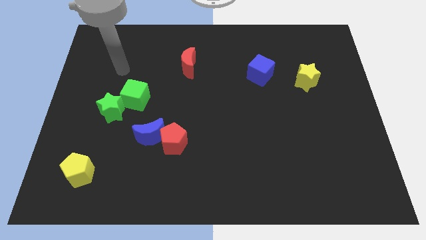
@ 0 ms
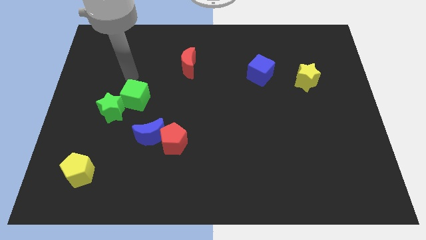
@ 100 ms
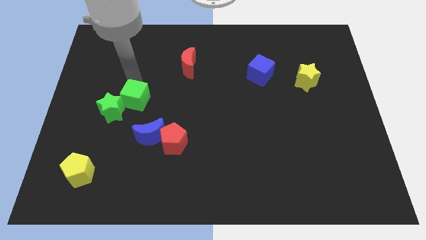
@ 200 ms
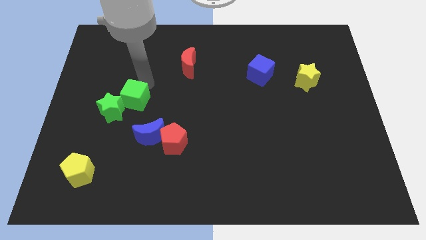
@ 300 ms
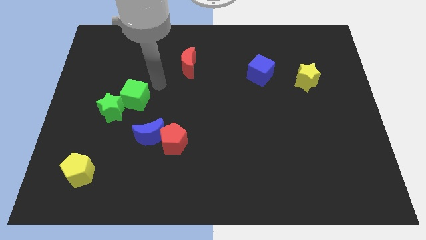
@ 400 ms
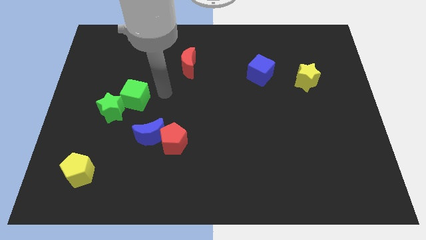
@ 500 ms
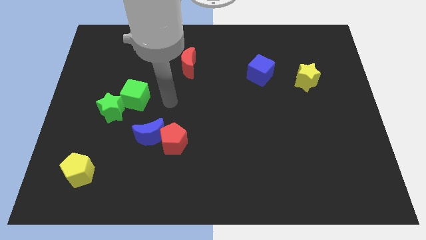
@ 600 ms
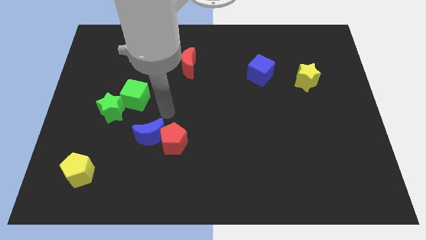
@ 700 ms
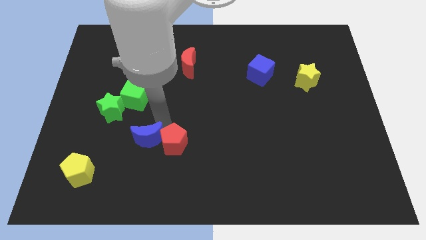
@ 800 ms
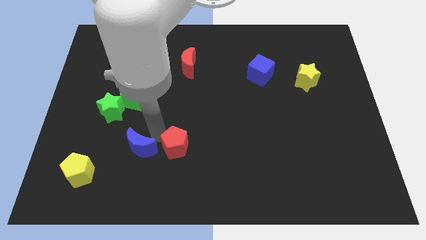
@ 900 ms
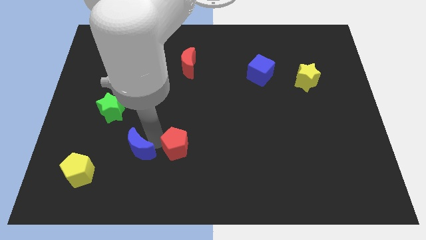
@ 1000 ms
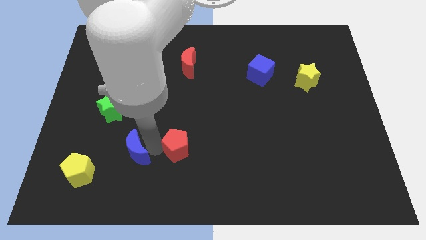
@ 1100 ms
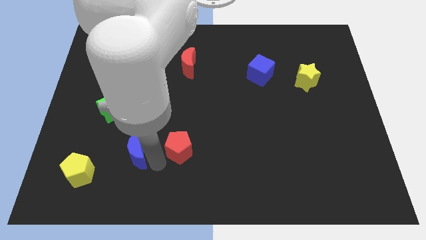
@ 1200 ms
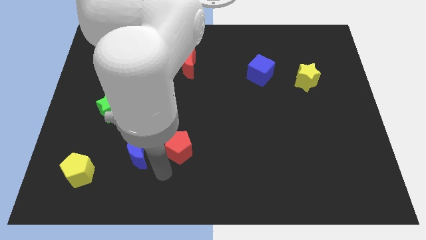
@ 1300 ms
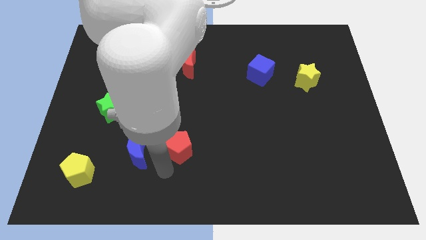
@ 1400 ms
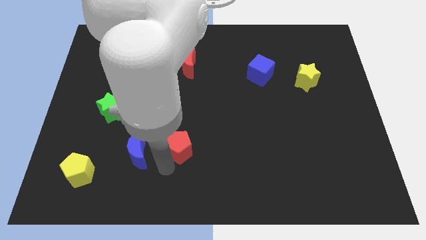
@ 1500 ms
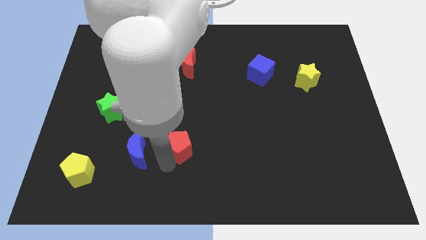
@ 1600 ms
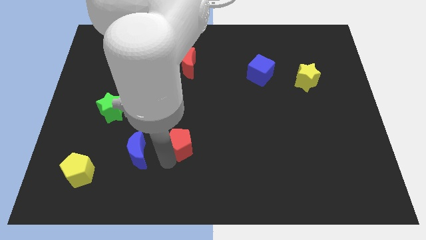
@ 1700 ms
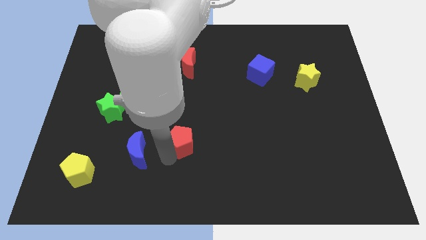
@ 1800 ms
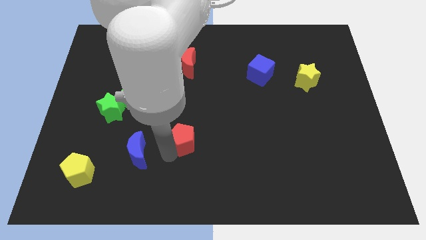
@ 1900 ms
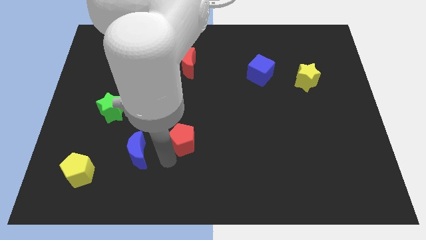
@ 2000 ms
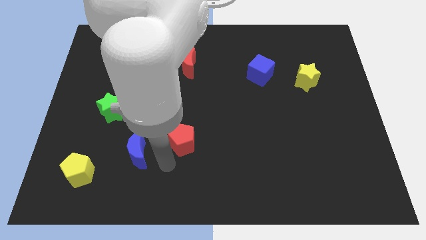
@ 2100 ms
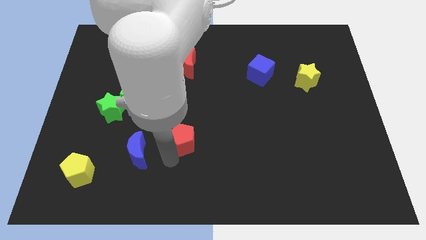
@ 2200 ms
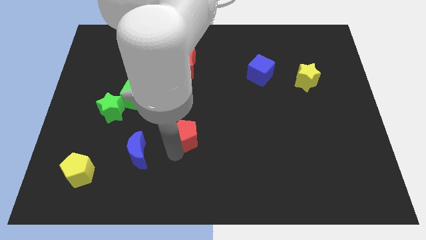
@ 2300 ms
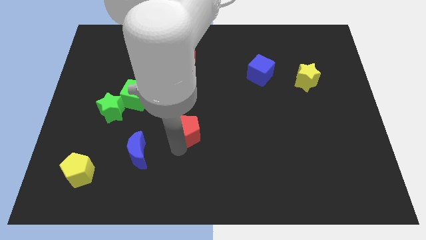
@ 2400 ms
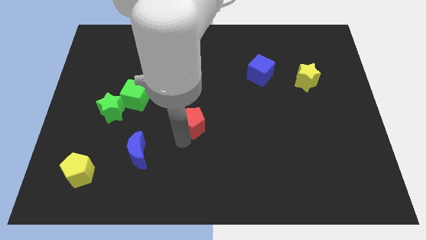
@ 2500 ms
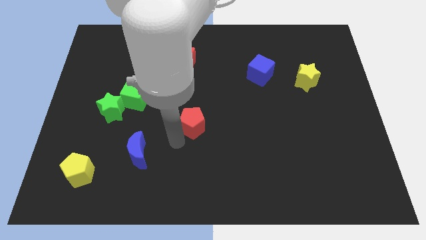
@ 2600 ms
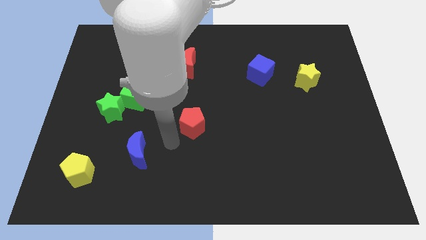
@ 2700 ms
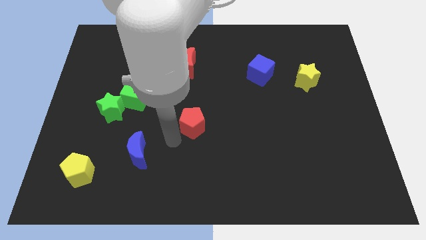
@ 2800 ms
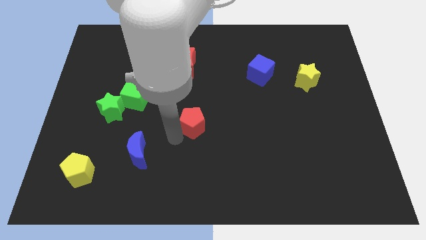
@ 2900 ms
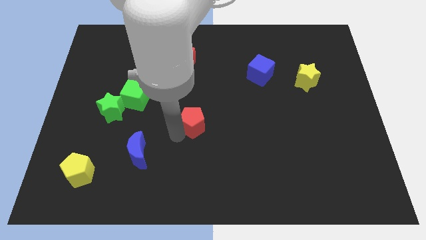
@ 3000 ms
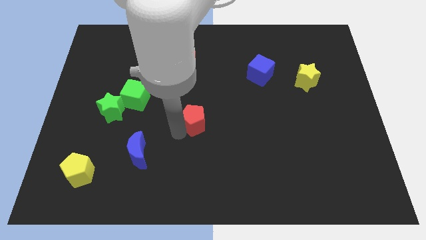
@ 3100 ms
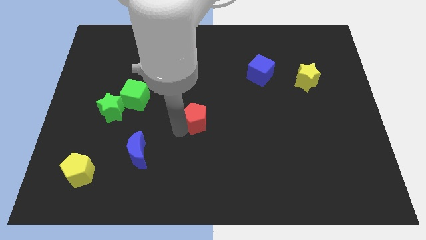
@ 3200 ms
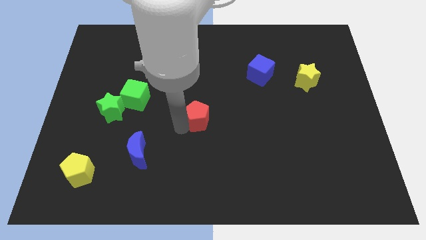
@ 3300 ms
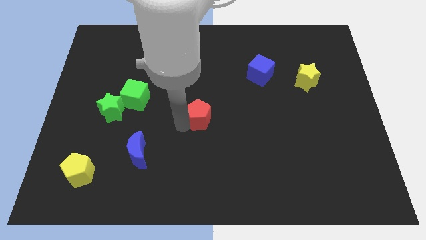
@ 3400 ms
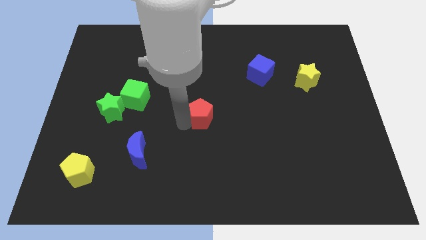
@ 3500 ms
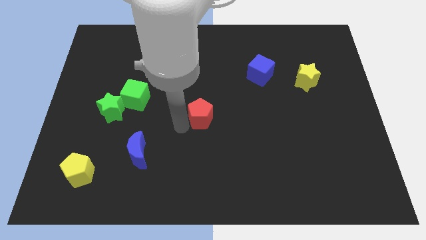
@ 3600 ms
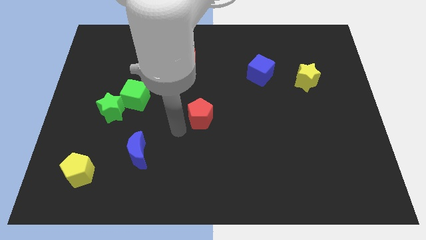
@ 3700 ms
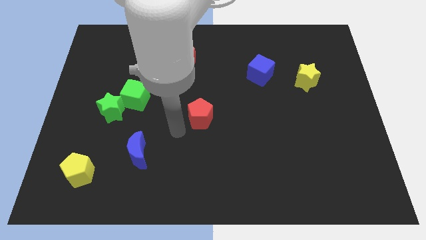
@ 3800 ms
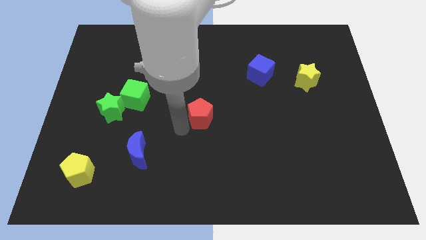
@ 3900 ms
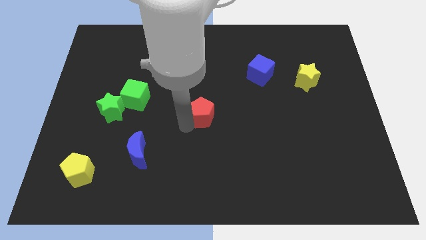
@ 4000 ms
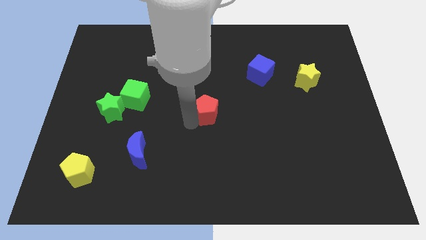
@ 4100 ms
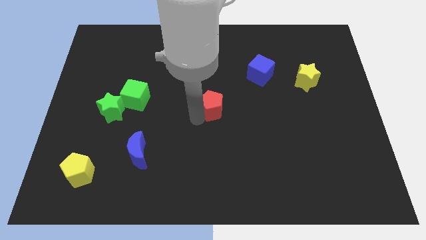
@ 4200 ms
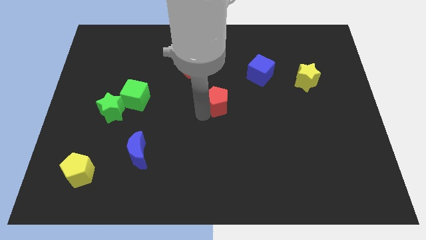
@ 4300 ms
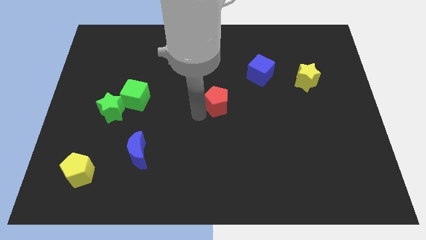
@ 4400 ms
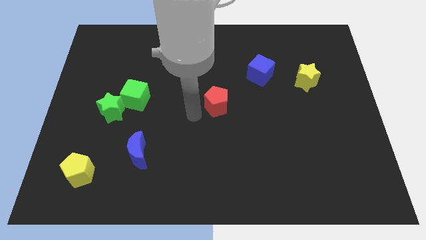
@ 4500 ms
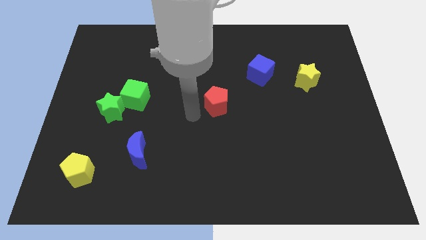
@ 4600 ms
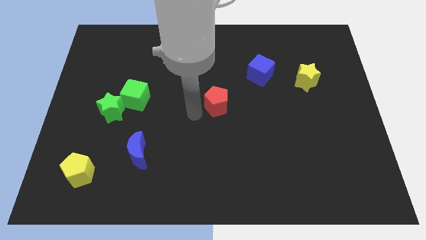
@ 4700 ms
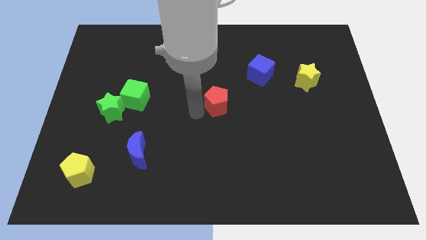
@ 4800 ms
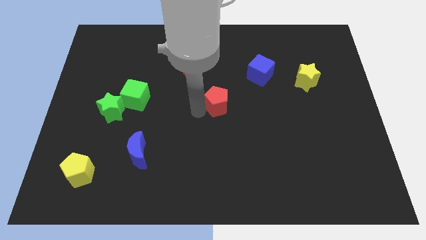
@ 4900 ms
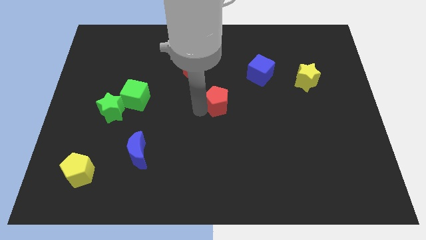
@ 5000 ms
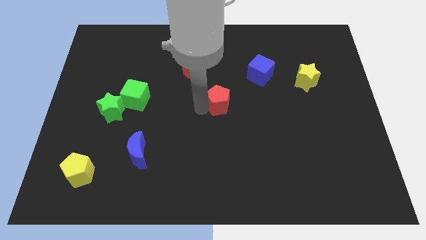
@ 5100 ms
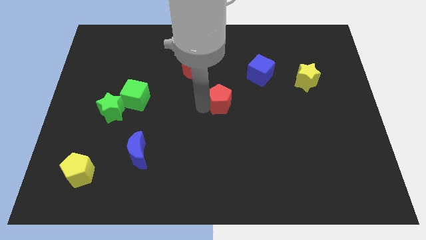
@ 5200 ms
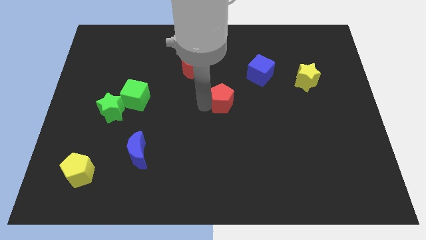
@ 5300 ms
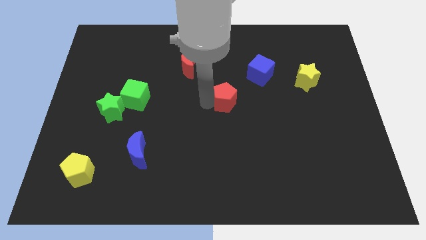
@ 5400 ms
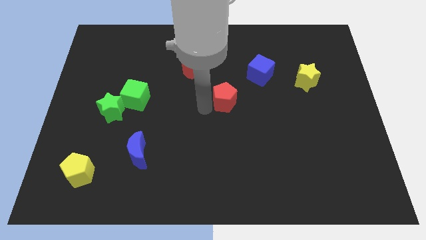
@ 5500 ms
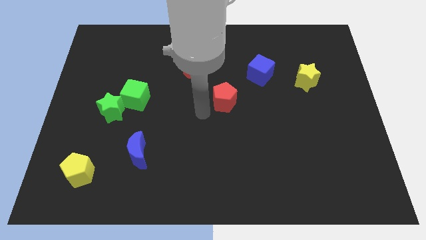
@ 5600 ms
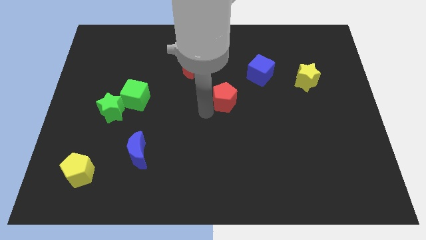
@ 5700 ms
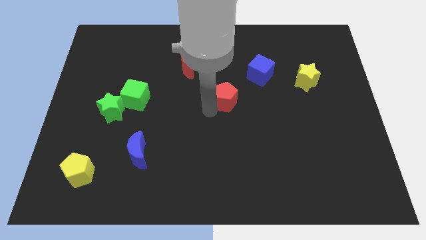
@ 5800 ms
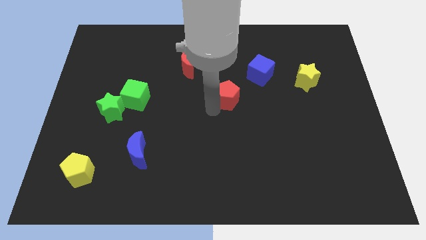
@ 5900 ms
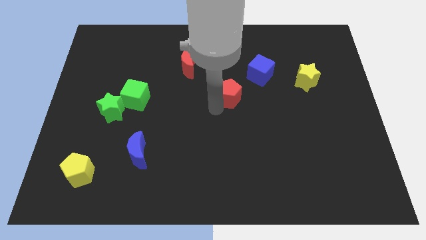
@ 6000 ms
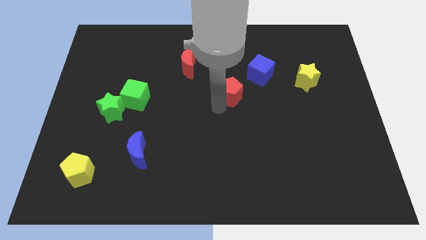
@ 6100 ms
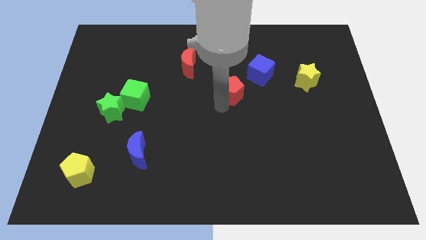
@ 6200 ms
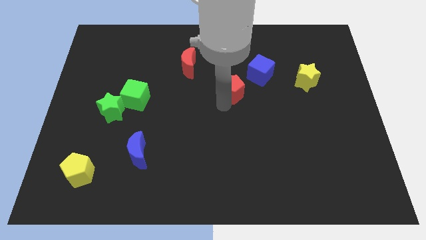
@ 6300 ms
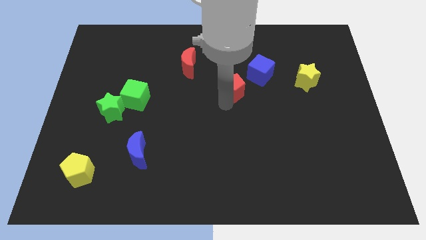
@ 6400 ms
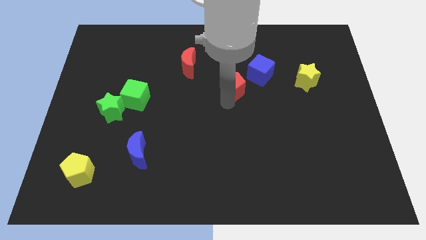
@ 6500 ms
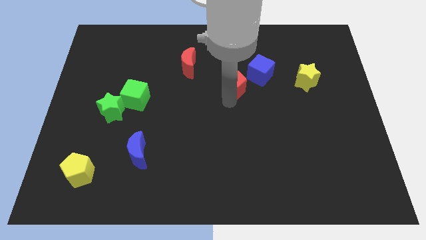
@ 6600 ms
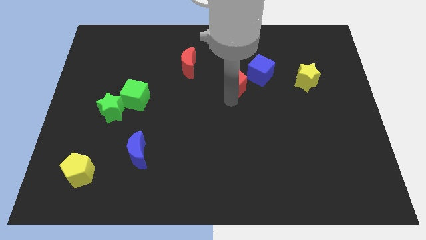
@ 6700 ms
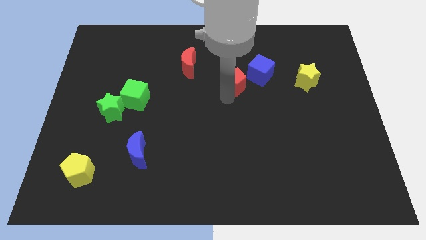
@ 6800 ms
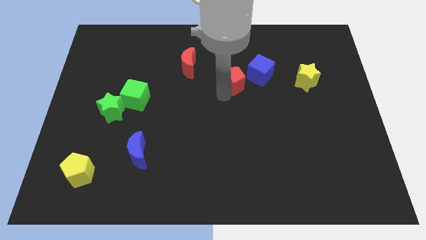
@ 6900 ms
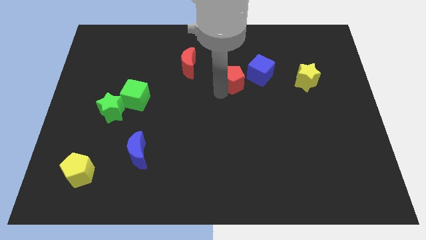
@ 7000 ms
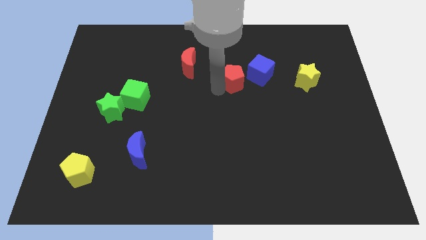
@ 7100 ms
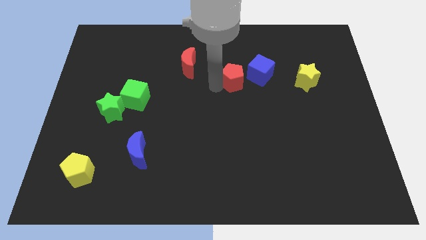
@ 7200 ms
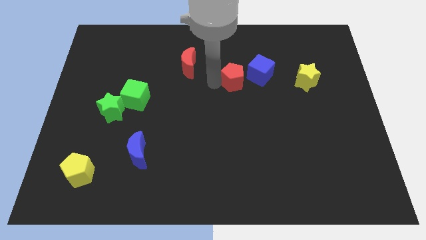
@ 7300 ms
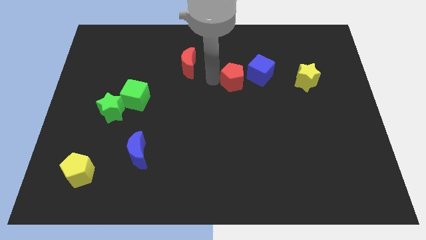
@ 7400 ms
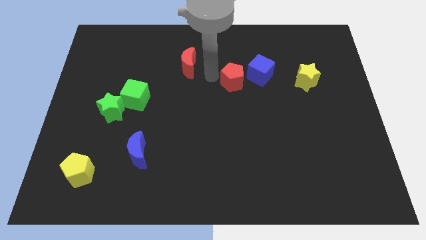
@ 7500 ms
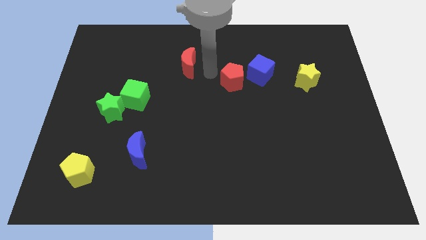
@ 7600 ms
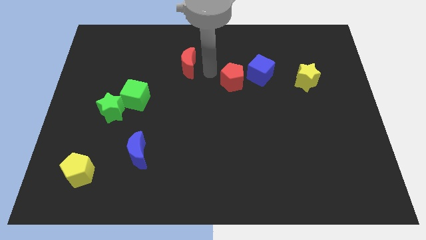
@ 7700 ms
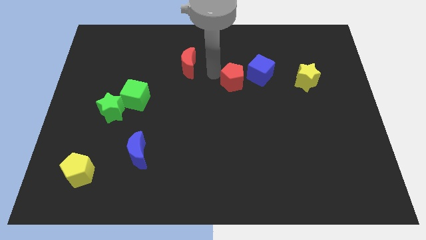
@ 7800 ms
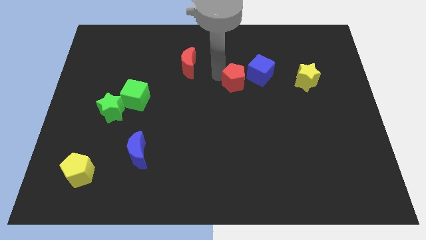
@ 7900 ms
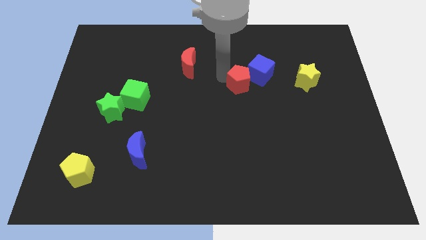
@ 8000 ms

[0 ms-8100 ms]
push the red pentagon to the blue cube
